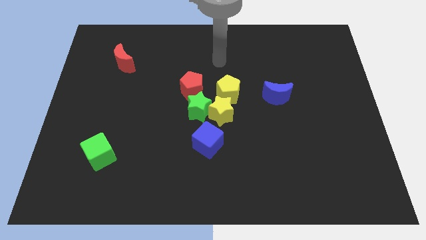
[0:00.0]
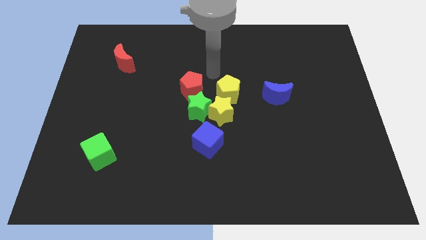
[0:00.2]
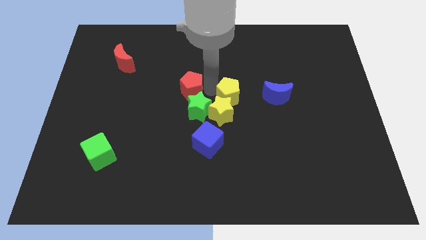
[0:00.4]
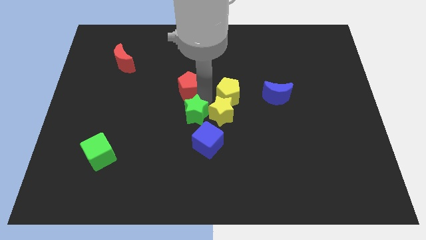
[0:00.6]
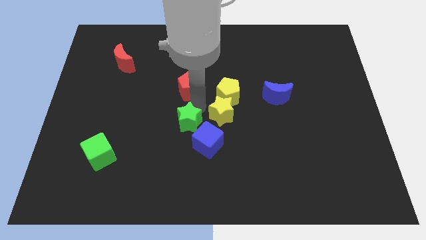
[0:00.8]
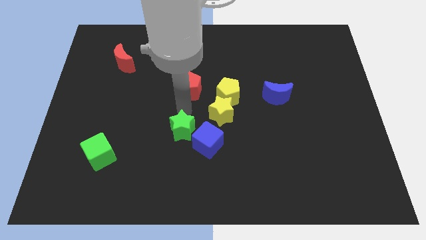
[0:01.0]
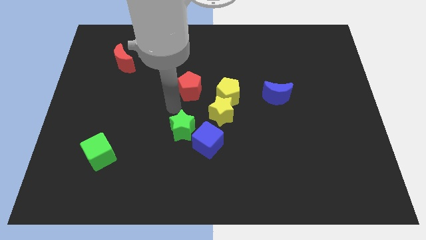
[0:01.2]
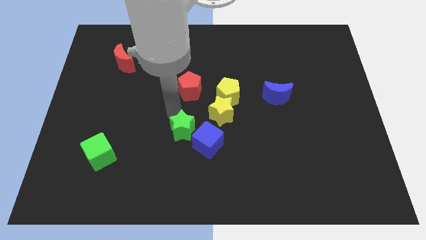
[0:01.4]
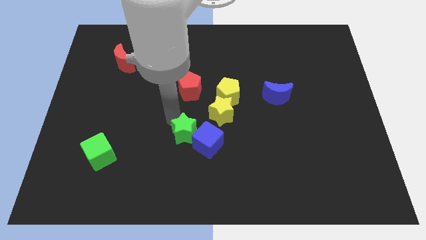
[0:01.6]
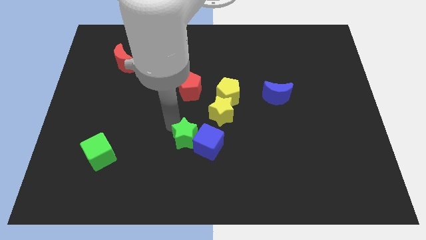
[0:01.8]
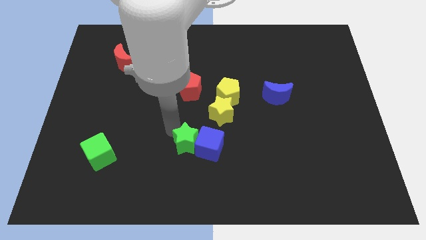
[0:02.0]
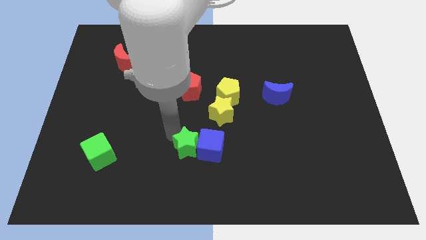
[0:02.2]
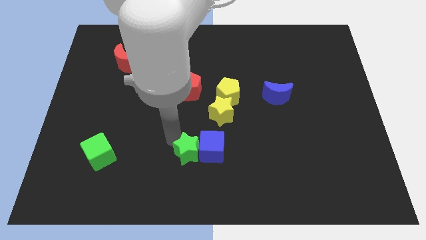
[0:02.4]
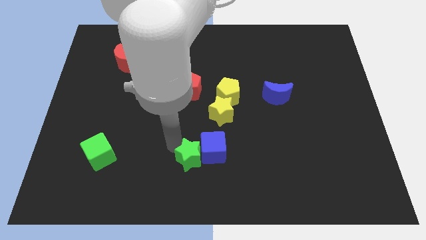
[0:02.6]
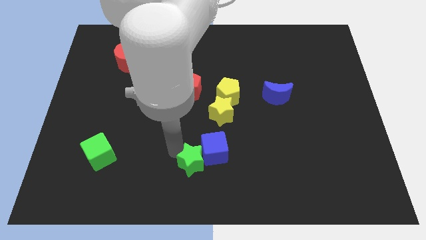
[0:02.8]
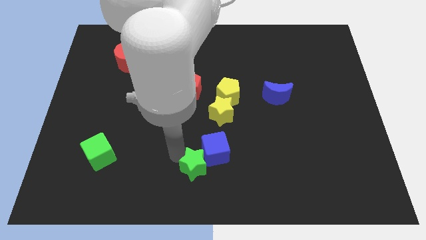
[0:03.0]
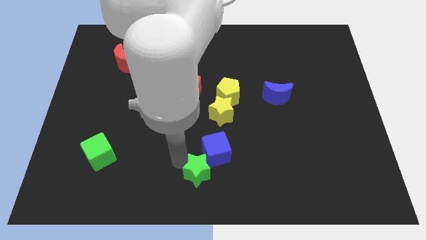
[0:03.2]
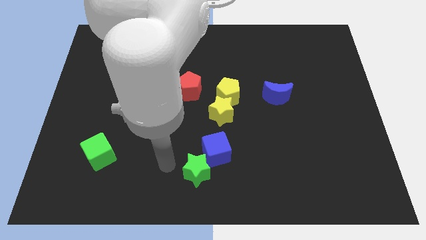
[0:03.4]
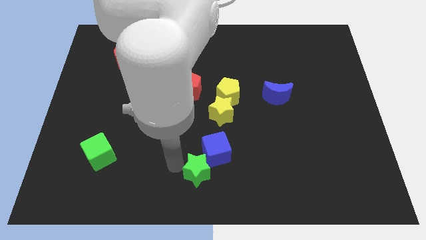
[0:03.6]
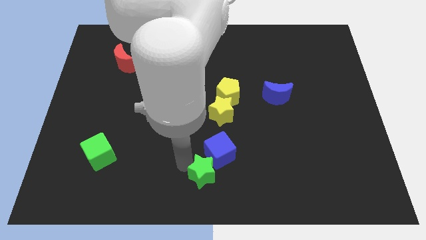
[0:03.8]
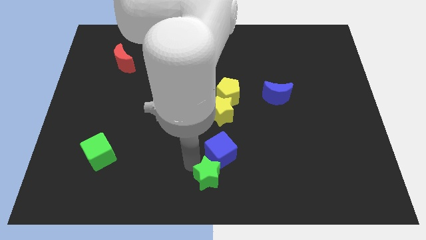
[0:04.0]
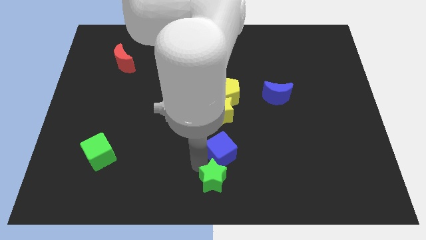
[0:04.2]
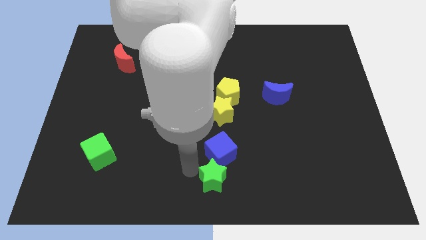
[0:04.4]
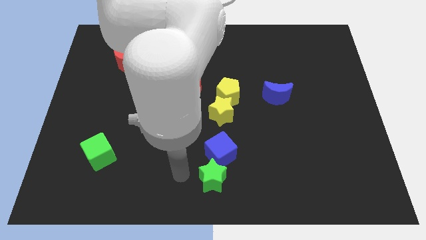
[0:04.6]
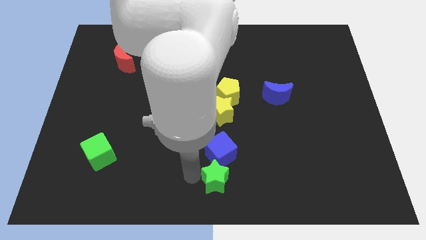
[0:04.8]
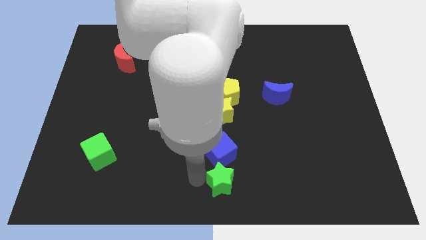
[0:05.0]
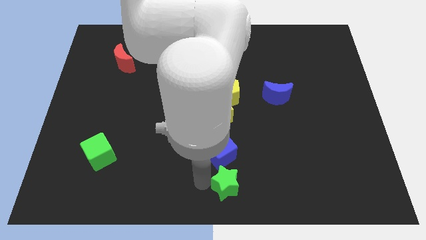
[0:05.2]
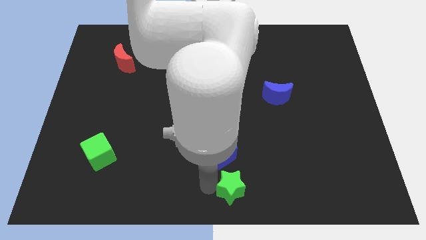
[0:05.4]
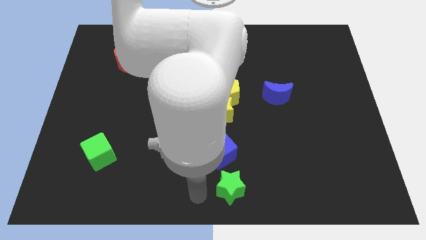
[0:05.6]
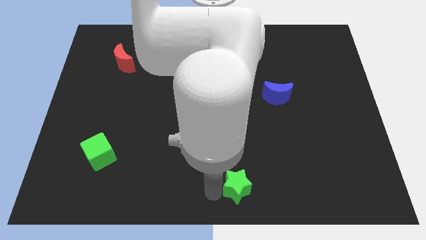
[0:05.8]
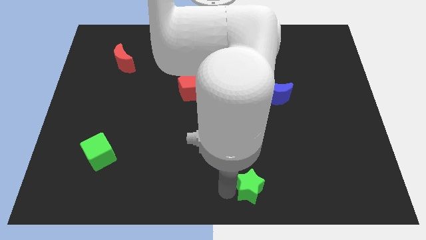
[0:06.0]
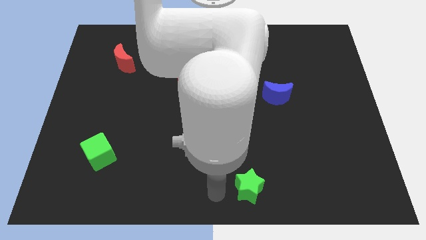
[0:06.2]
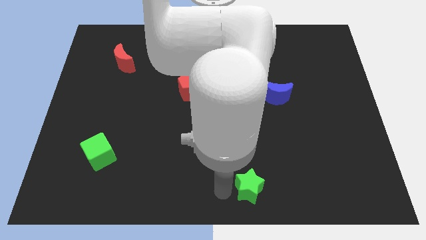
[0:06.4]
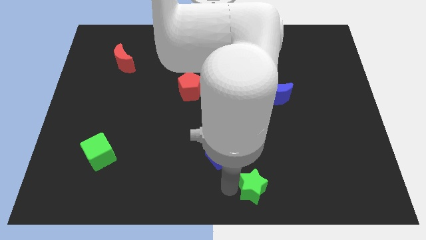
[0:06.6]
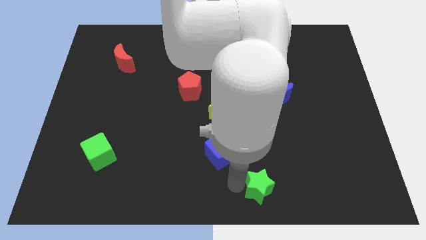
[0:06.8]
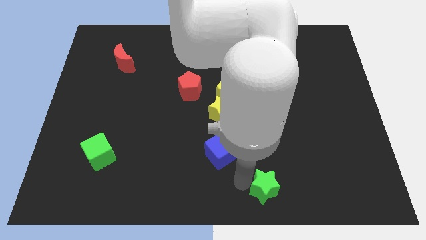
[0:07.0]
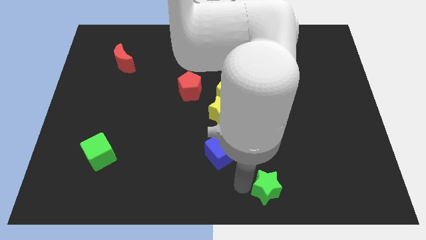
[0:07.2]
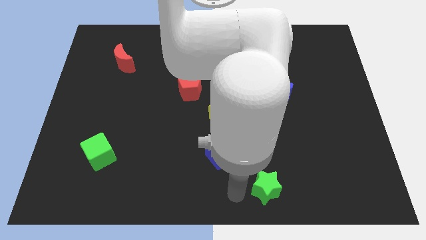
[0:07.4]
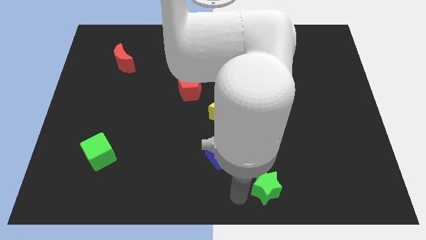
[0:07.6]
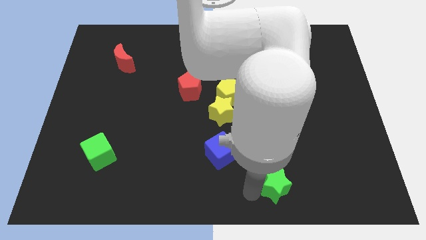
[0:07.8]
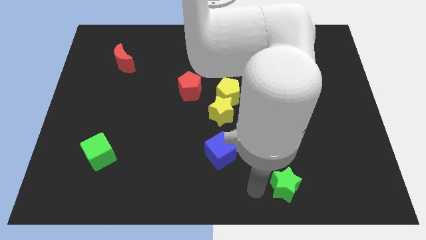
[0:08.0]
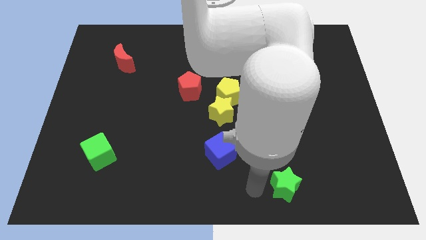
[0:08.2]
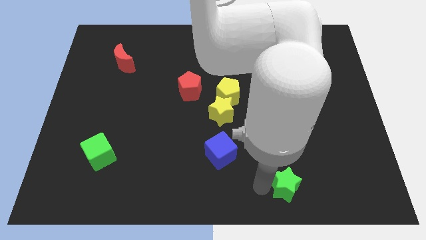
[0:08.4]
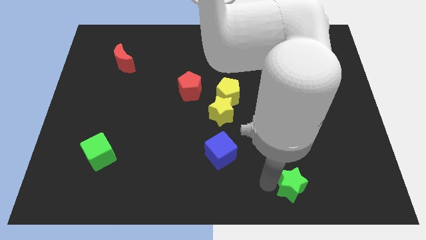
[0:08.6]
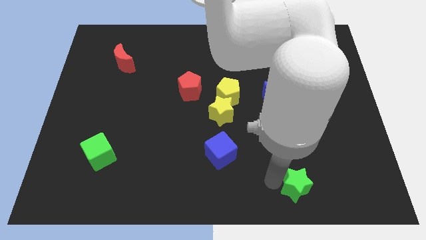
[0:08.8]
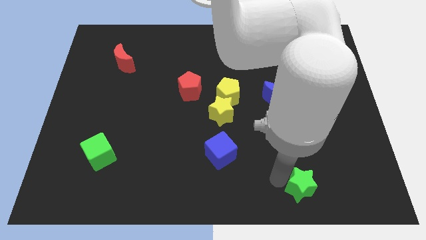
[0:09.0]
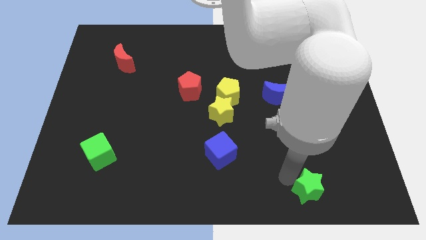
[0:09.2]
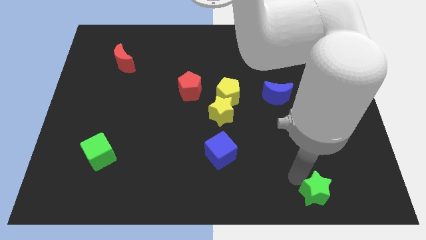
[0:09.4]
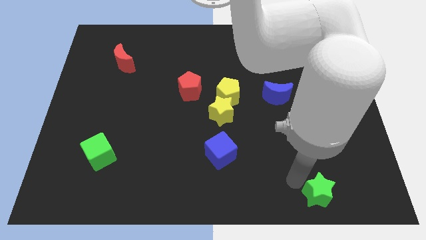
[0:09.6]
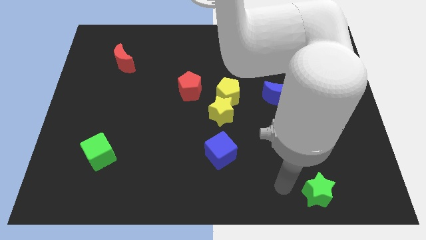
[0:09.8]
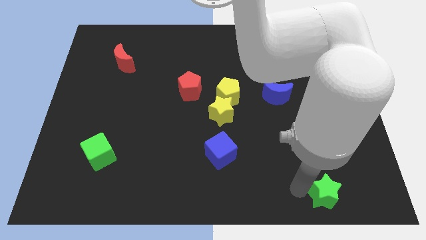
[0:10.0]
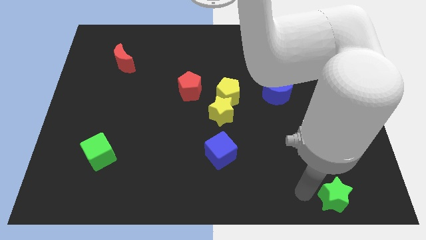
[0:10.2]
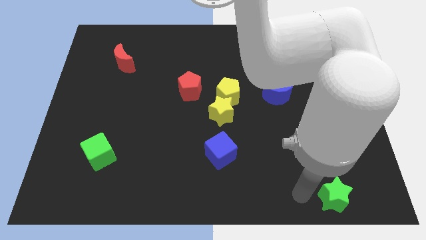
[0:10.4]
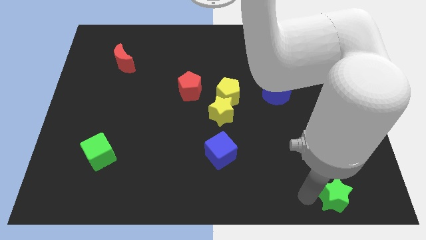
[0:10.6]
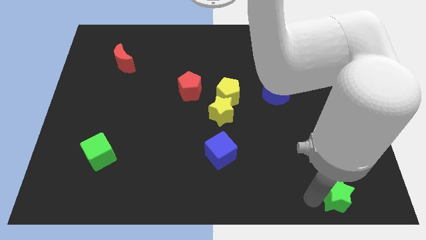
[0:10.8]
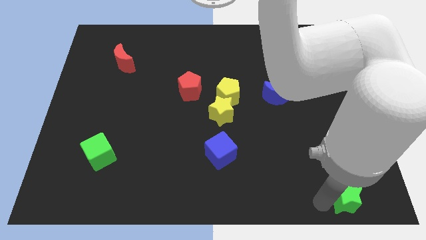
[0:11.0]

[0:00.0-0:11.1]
put the green star to the lower right corner
